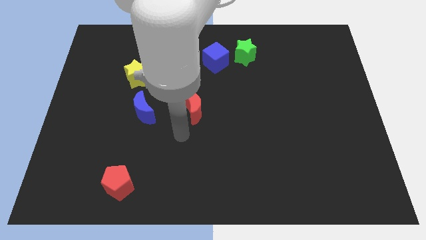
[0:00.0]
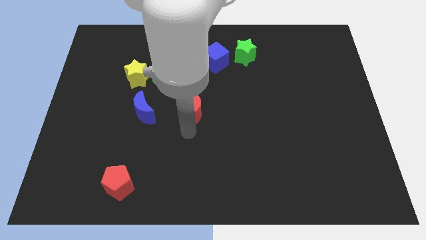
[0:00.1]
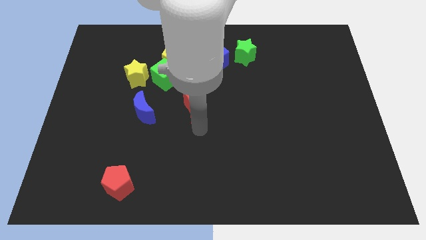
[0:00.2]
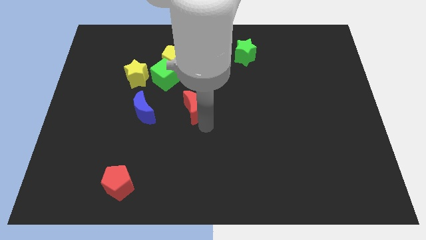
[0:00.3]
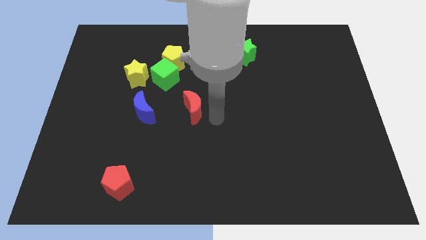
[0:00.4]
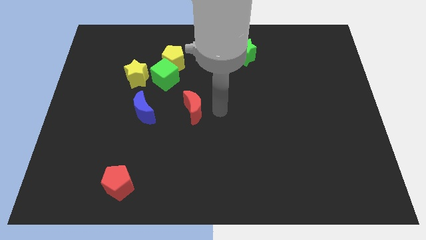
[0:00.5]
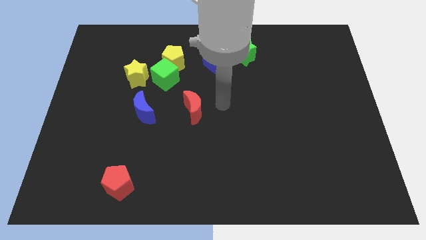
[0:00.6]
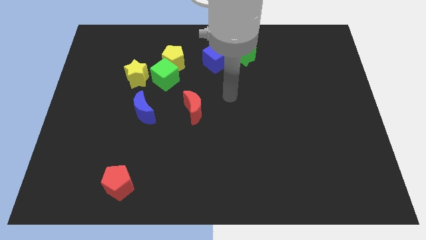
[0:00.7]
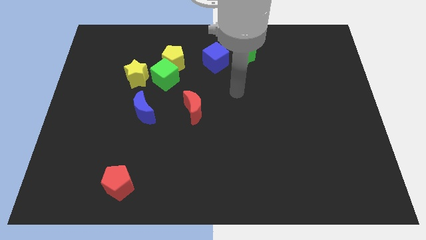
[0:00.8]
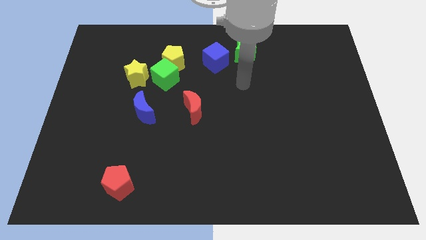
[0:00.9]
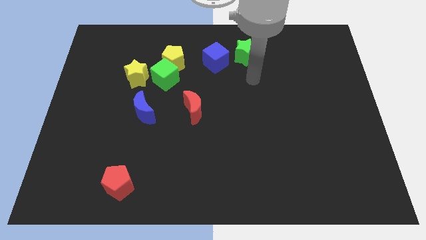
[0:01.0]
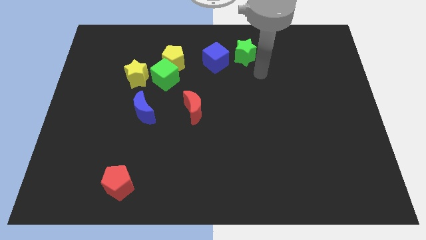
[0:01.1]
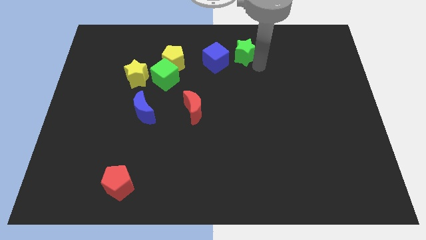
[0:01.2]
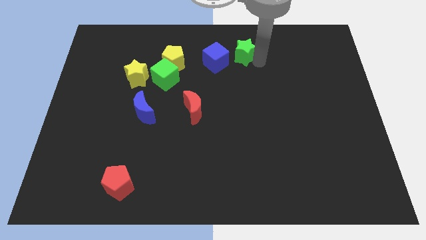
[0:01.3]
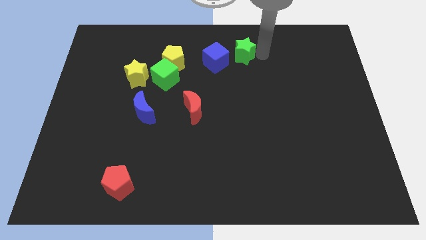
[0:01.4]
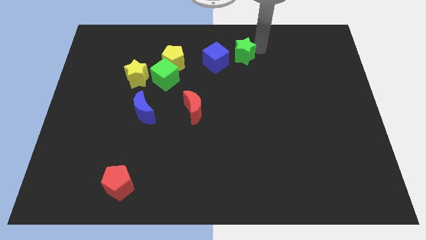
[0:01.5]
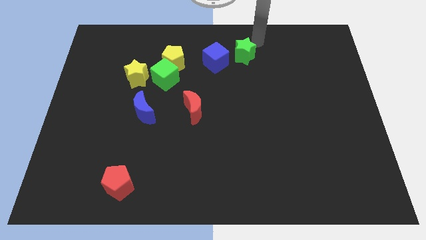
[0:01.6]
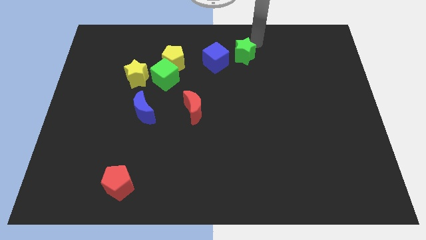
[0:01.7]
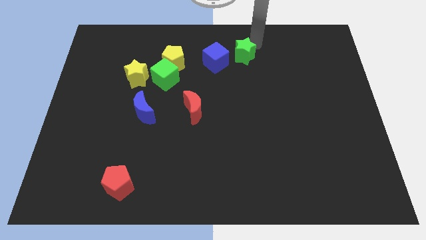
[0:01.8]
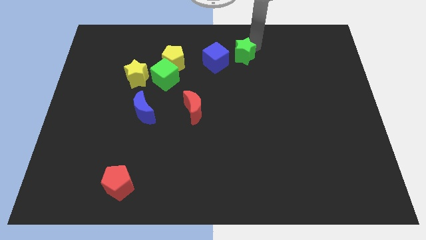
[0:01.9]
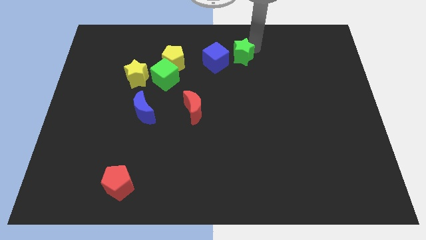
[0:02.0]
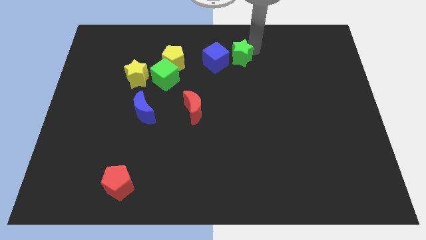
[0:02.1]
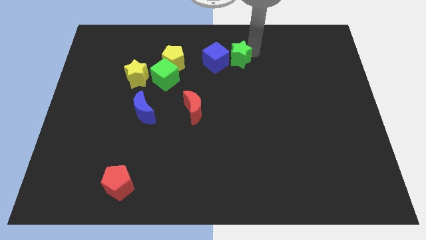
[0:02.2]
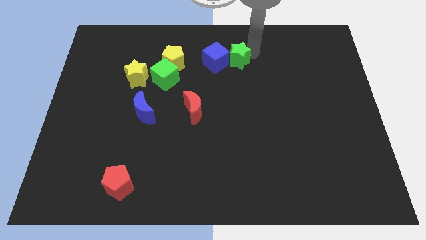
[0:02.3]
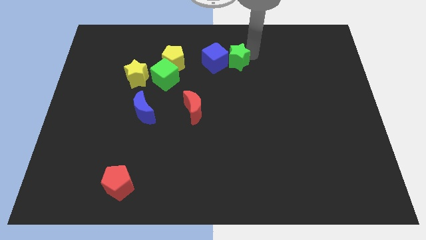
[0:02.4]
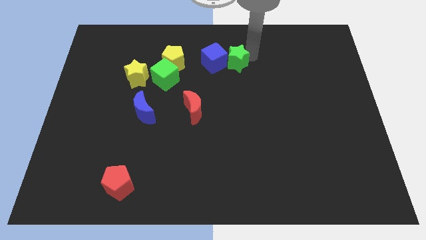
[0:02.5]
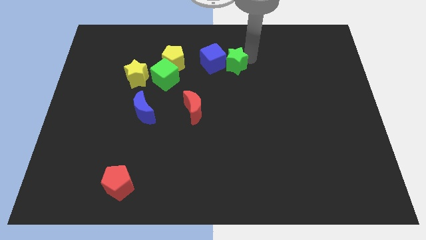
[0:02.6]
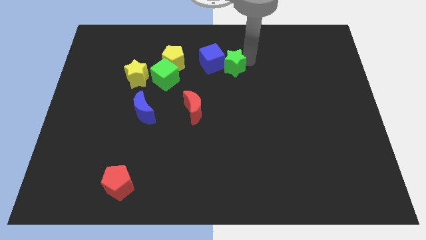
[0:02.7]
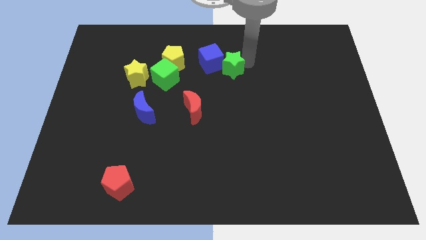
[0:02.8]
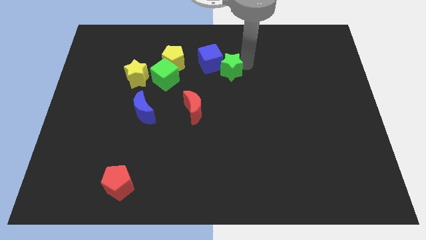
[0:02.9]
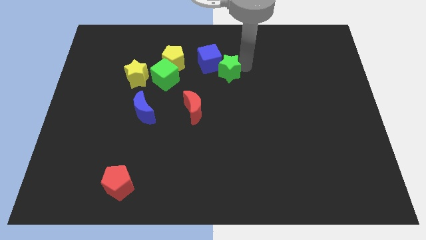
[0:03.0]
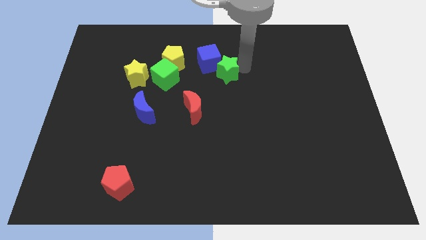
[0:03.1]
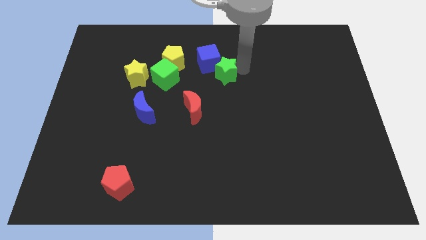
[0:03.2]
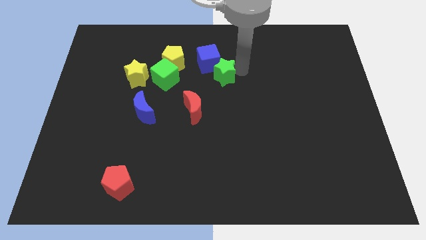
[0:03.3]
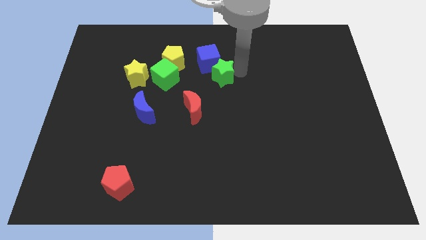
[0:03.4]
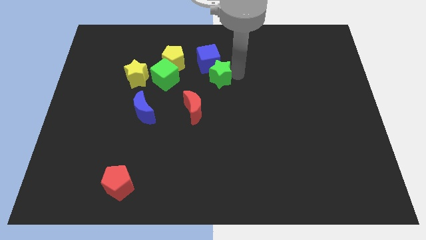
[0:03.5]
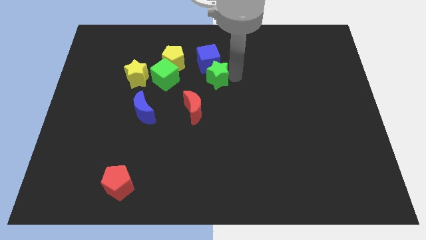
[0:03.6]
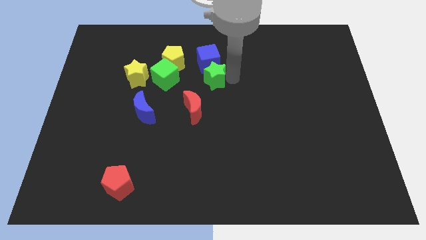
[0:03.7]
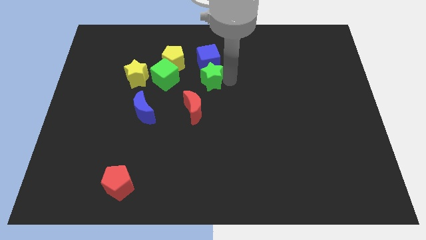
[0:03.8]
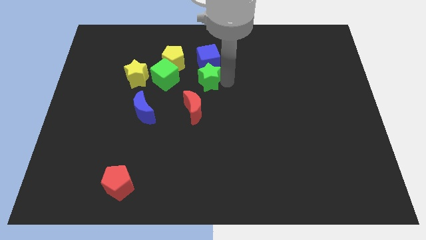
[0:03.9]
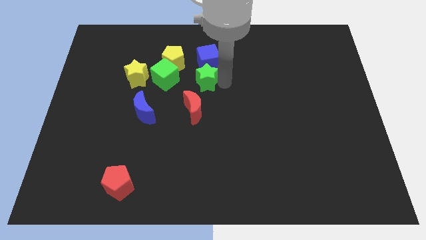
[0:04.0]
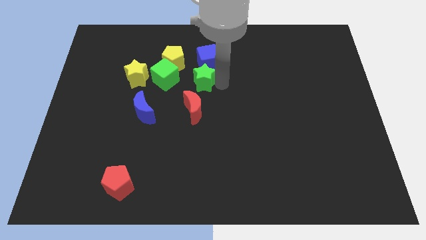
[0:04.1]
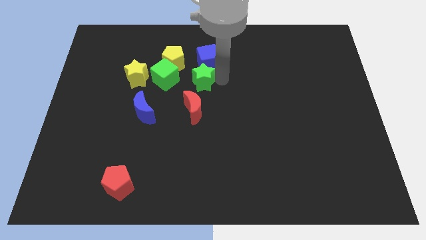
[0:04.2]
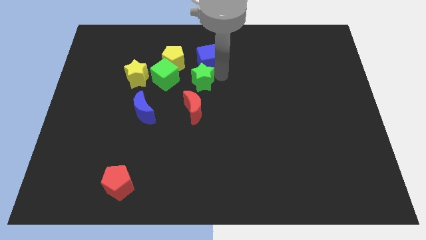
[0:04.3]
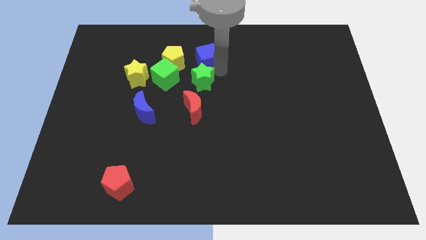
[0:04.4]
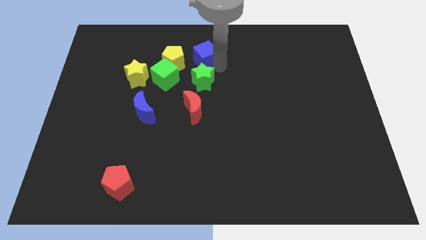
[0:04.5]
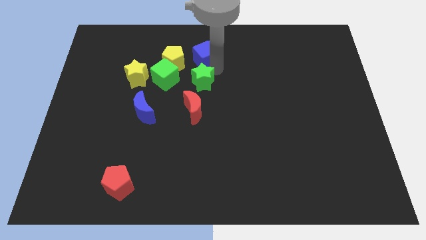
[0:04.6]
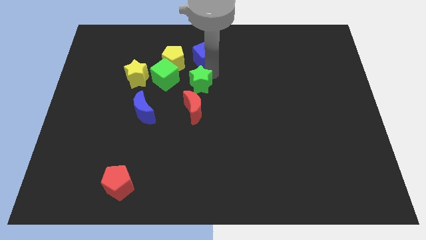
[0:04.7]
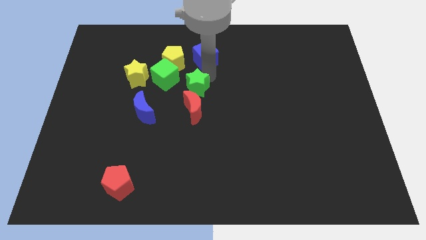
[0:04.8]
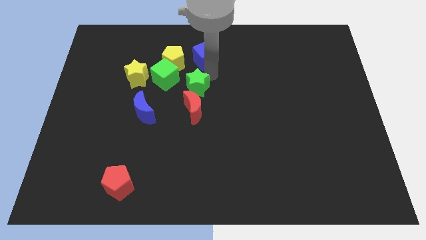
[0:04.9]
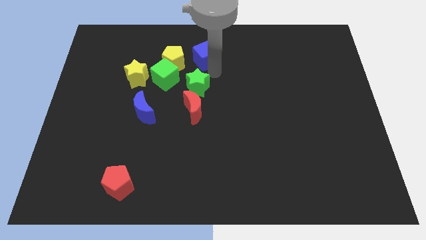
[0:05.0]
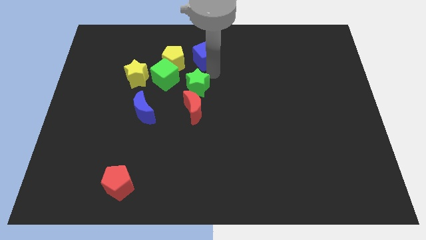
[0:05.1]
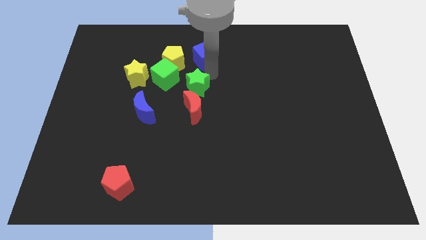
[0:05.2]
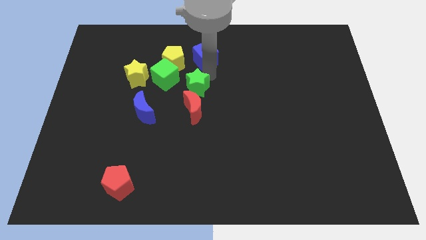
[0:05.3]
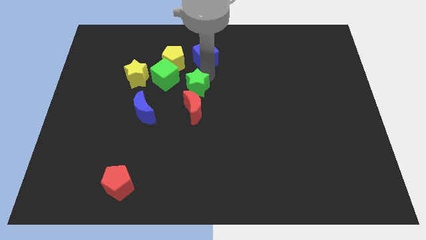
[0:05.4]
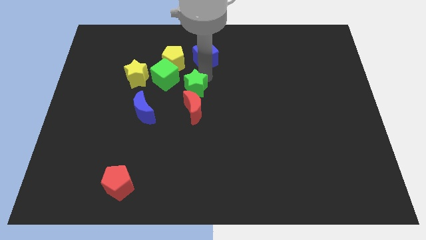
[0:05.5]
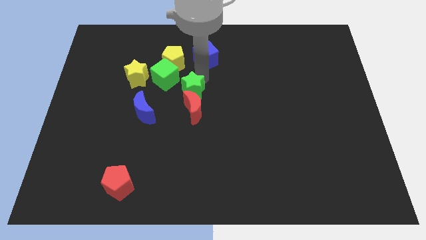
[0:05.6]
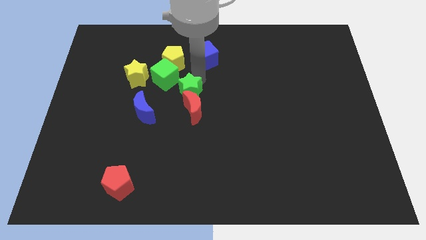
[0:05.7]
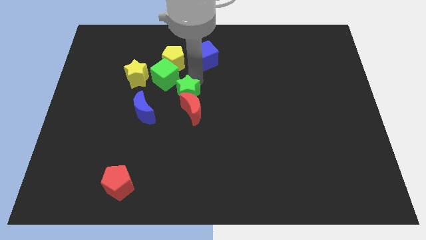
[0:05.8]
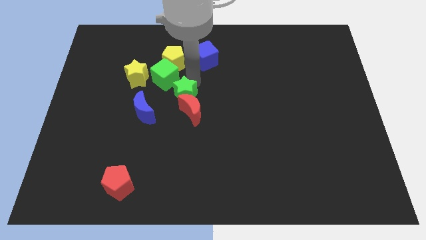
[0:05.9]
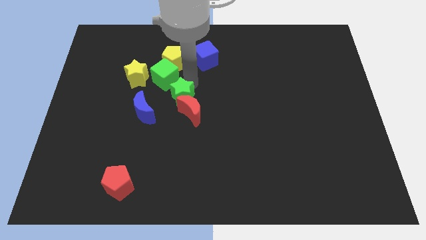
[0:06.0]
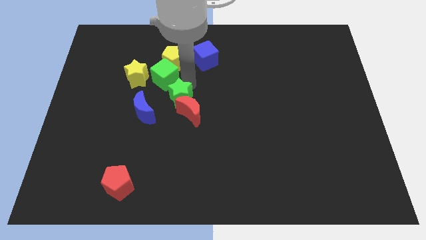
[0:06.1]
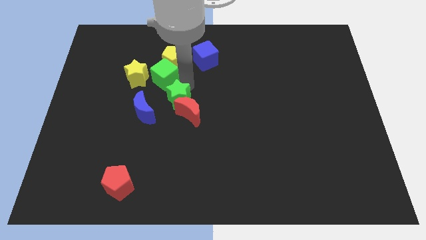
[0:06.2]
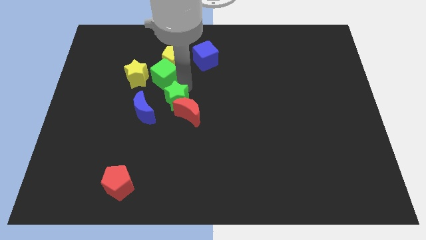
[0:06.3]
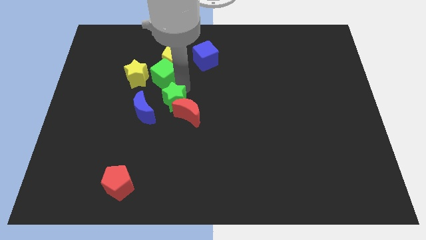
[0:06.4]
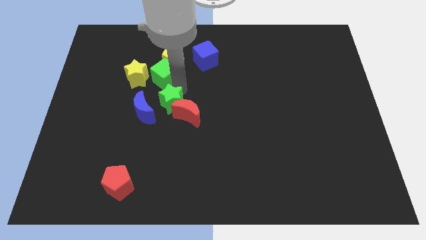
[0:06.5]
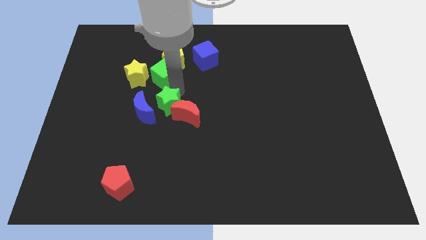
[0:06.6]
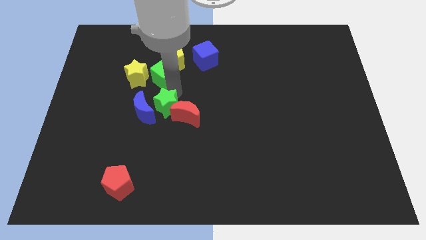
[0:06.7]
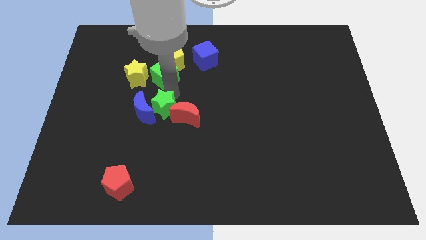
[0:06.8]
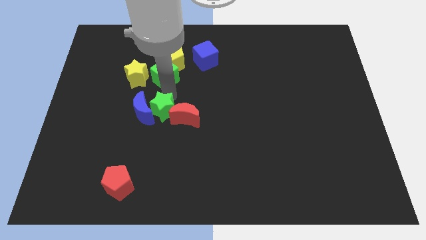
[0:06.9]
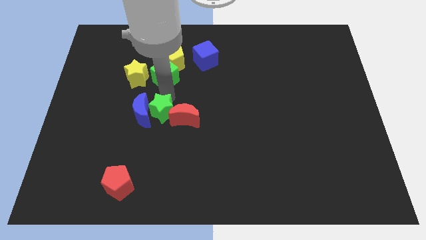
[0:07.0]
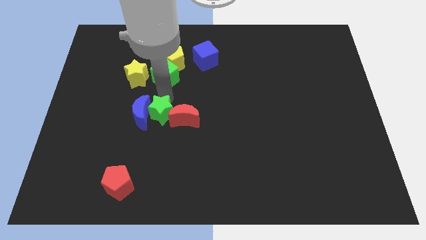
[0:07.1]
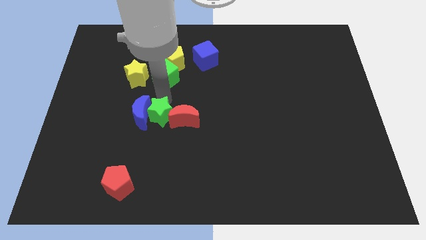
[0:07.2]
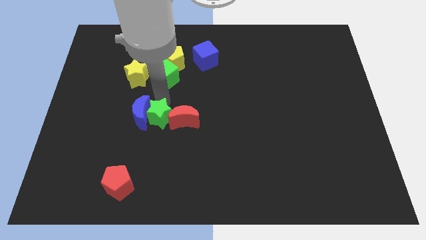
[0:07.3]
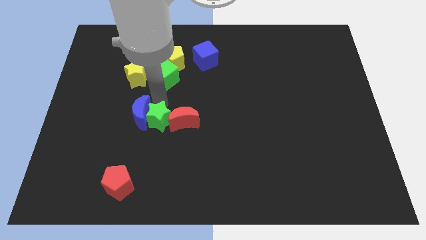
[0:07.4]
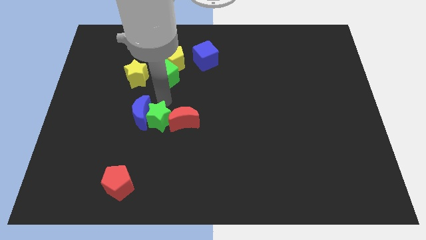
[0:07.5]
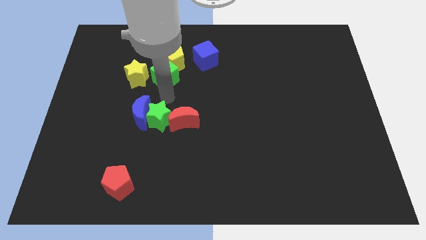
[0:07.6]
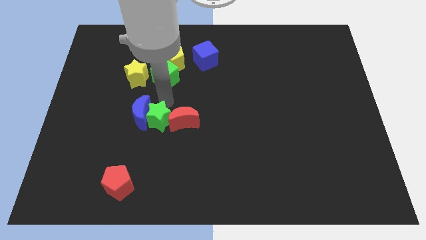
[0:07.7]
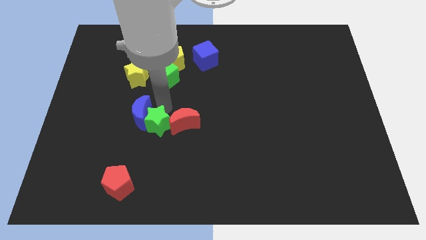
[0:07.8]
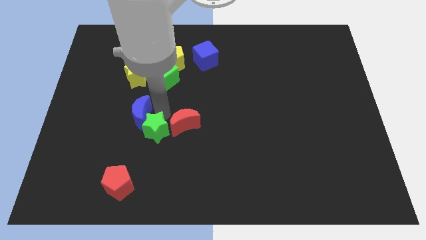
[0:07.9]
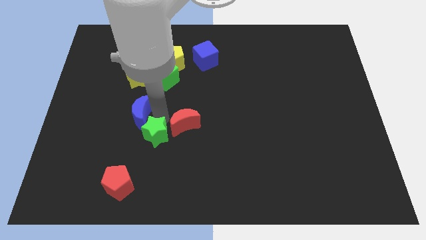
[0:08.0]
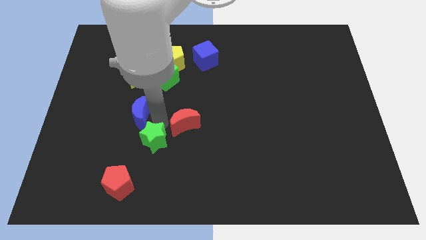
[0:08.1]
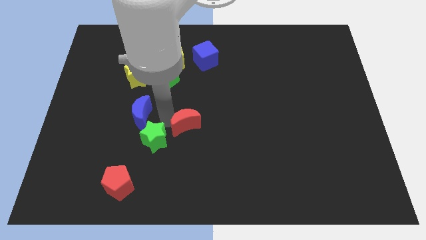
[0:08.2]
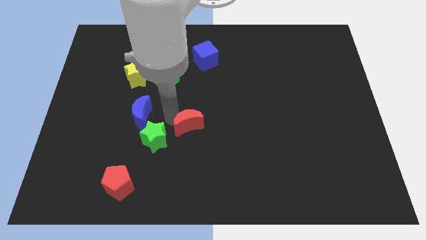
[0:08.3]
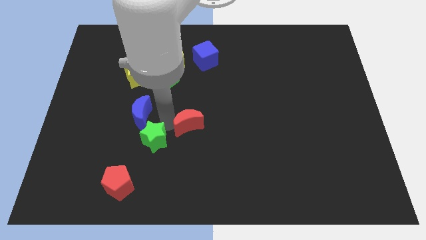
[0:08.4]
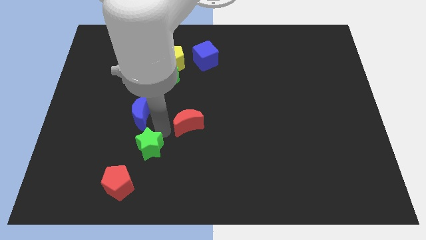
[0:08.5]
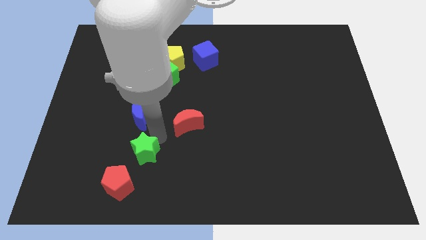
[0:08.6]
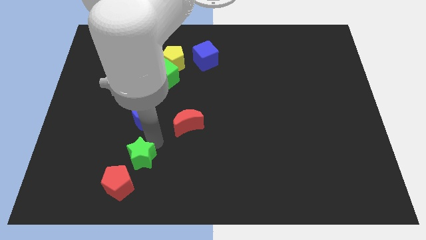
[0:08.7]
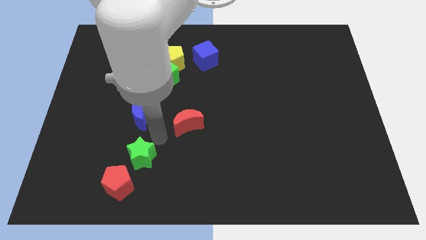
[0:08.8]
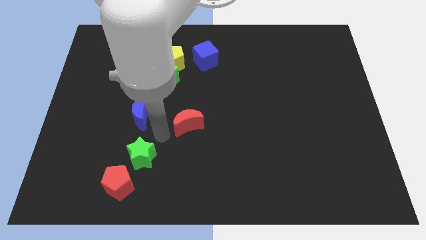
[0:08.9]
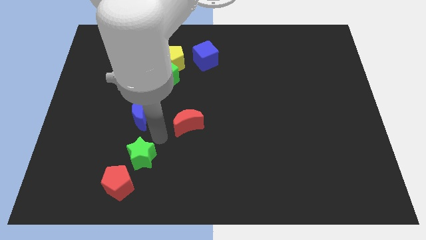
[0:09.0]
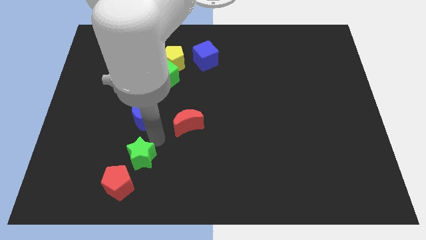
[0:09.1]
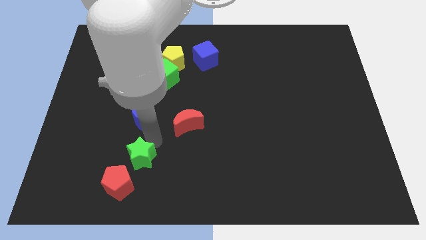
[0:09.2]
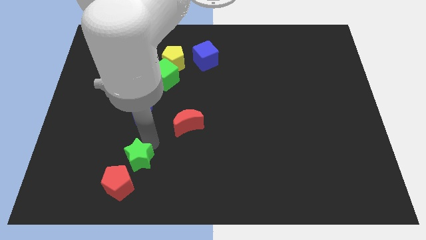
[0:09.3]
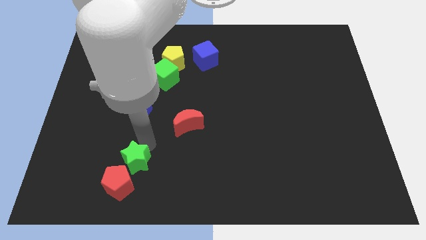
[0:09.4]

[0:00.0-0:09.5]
move the green star close to the red pentagon
